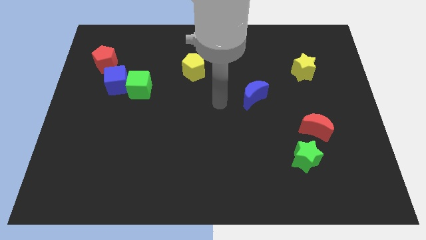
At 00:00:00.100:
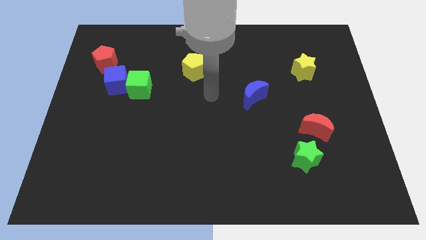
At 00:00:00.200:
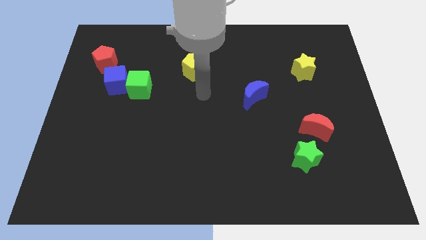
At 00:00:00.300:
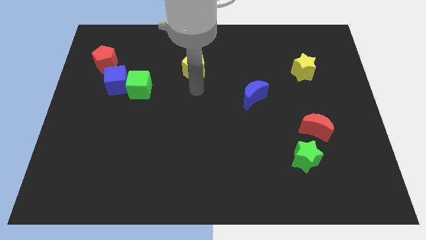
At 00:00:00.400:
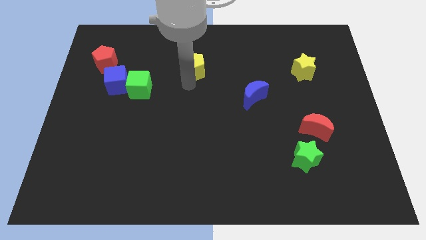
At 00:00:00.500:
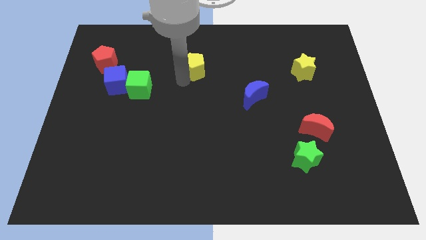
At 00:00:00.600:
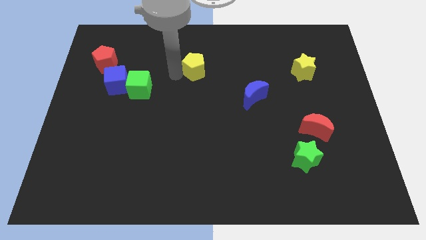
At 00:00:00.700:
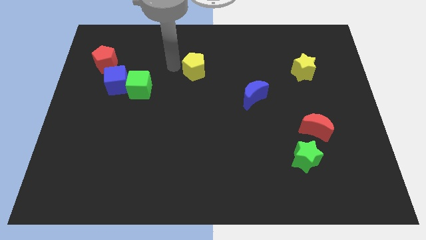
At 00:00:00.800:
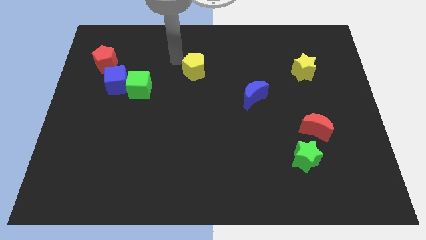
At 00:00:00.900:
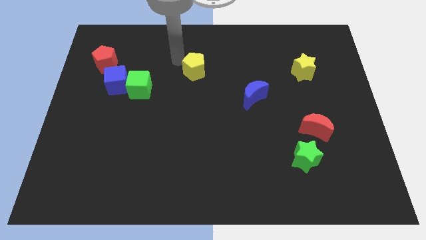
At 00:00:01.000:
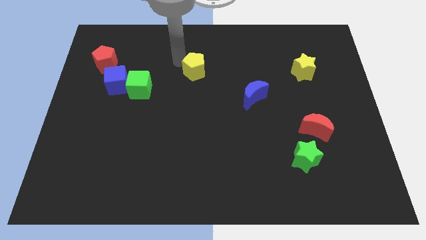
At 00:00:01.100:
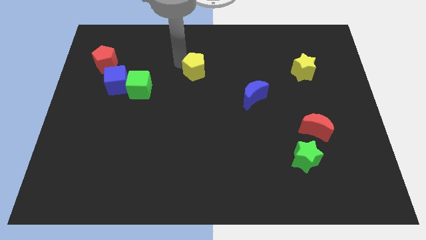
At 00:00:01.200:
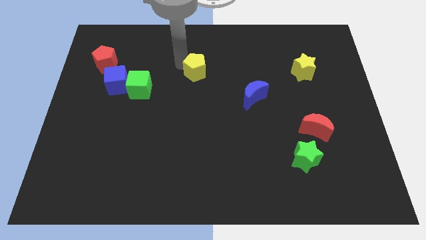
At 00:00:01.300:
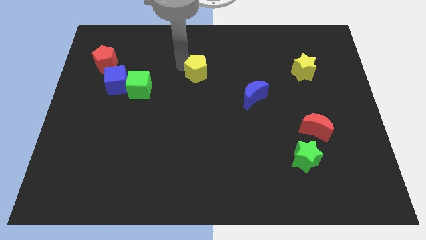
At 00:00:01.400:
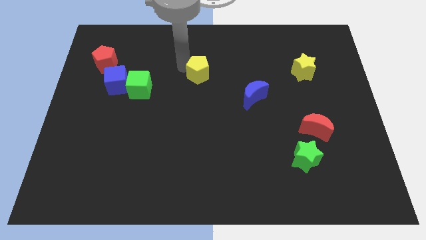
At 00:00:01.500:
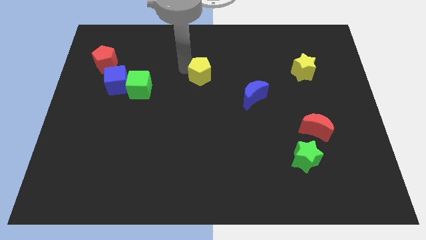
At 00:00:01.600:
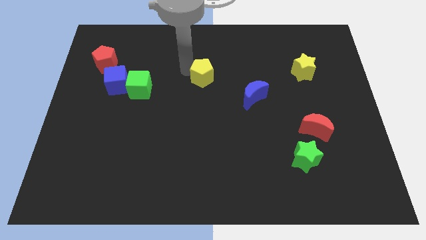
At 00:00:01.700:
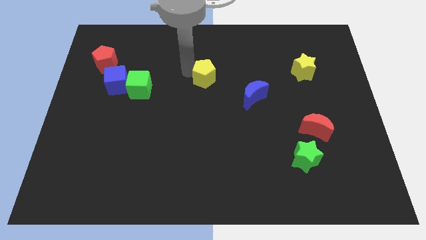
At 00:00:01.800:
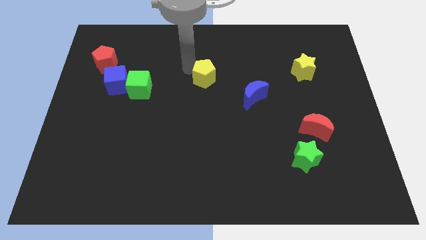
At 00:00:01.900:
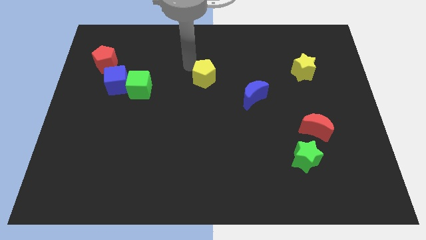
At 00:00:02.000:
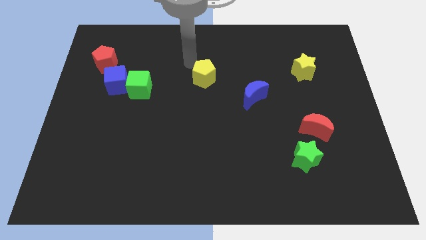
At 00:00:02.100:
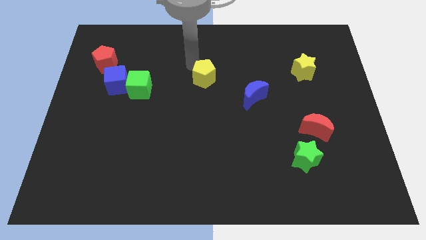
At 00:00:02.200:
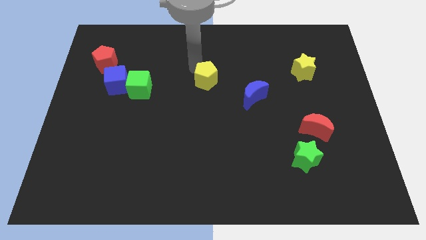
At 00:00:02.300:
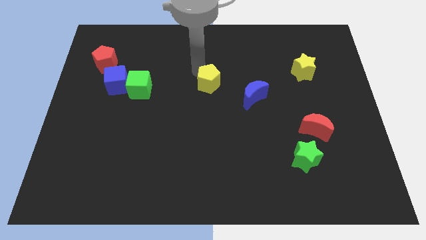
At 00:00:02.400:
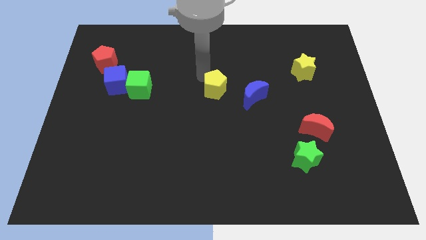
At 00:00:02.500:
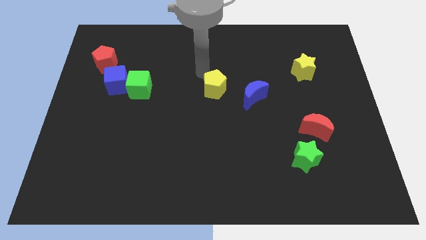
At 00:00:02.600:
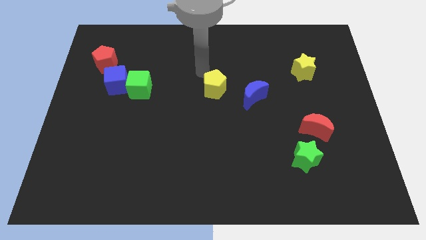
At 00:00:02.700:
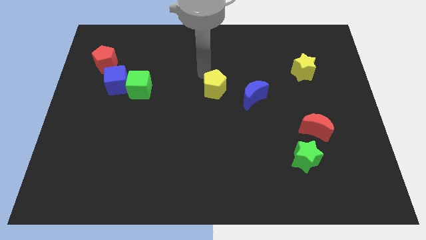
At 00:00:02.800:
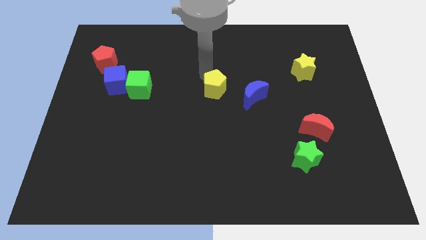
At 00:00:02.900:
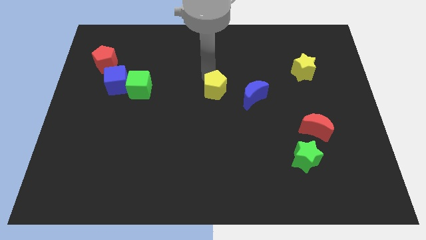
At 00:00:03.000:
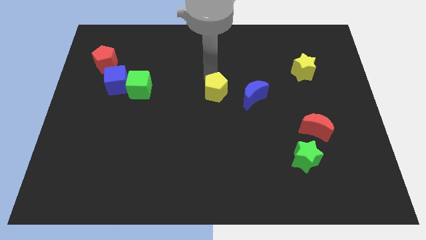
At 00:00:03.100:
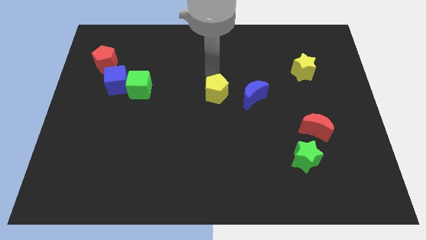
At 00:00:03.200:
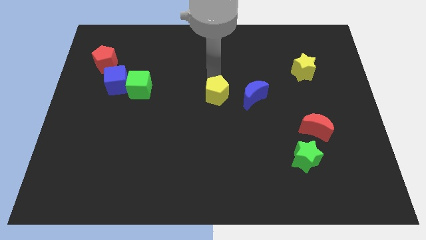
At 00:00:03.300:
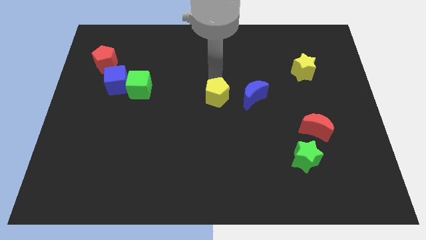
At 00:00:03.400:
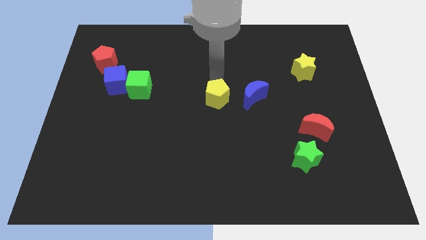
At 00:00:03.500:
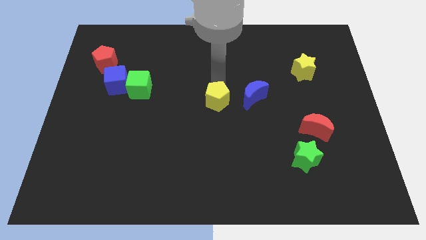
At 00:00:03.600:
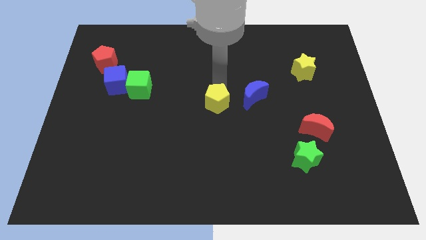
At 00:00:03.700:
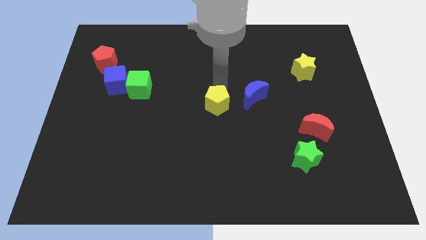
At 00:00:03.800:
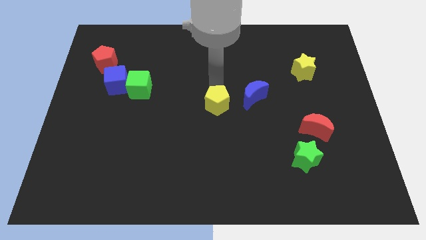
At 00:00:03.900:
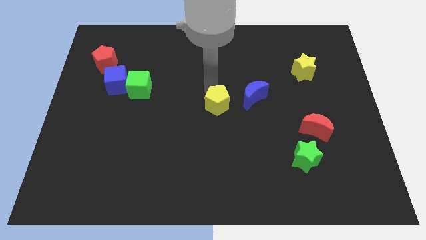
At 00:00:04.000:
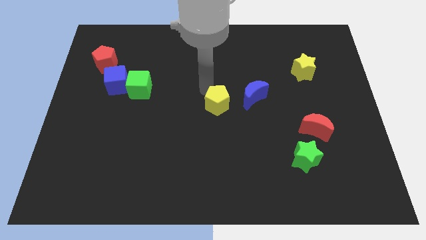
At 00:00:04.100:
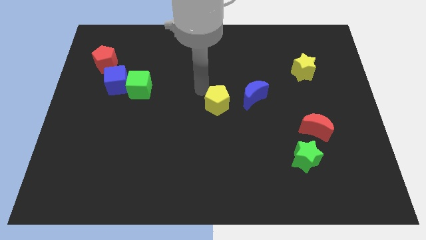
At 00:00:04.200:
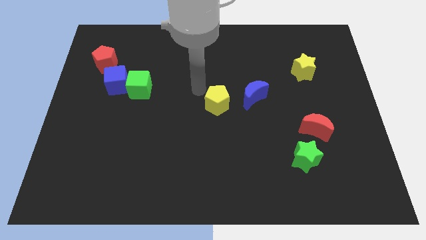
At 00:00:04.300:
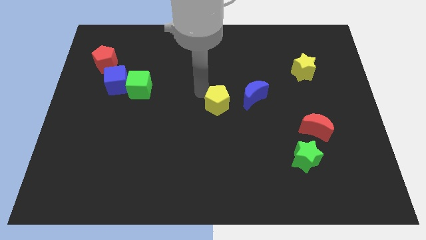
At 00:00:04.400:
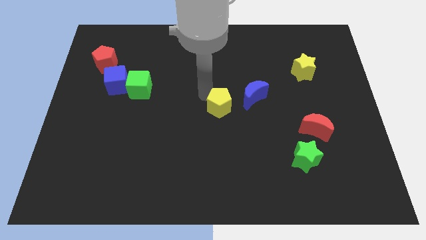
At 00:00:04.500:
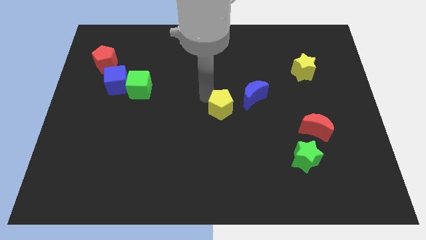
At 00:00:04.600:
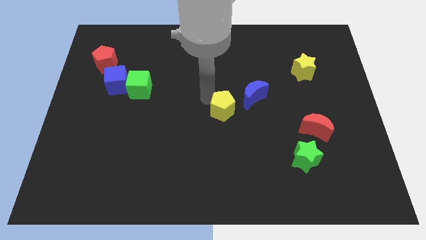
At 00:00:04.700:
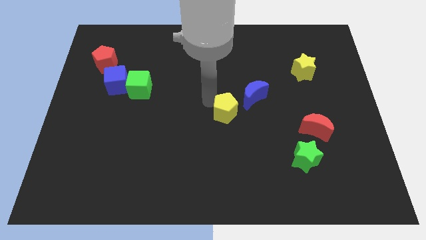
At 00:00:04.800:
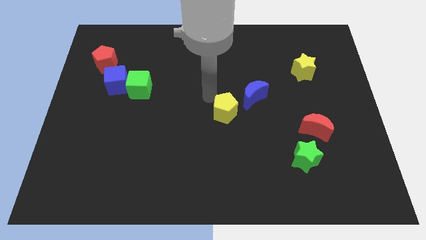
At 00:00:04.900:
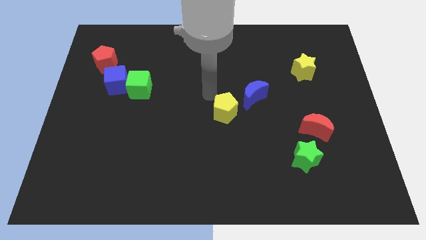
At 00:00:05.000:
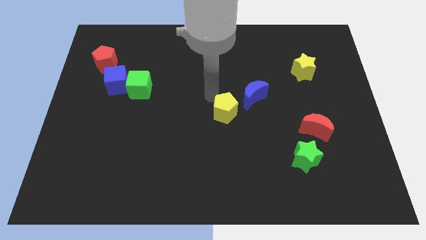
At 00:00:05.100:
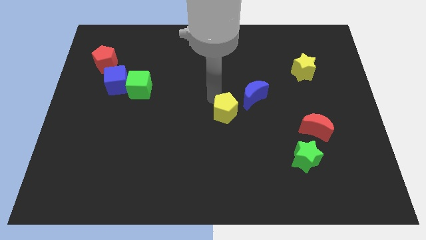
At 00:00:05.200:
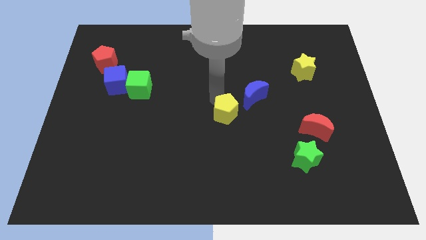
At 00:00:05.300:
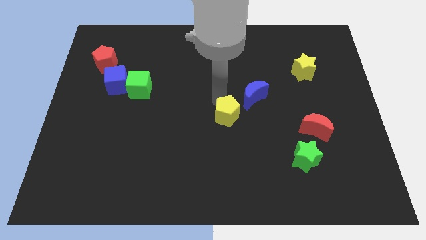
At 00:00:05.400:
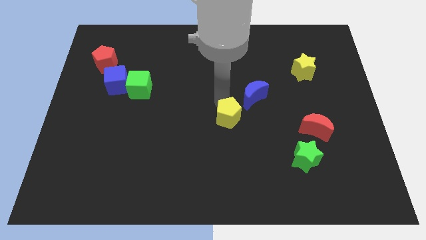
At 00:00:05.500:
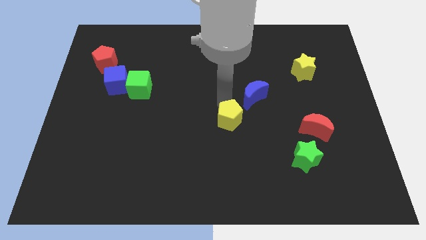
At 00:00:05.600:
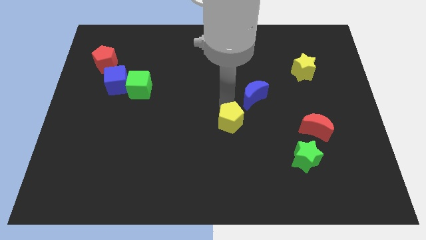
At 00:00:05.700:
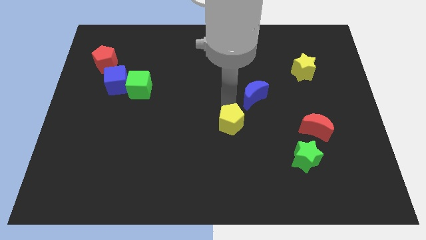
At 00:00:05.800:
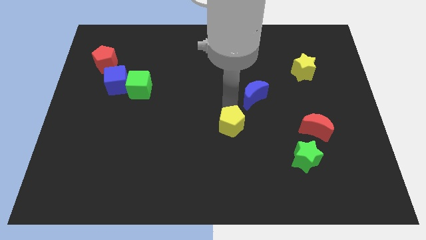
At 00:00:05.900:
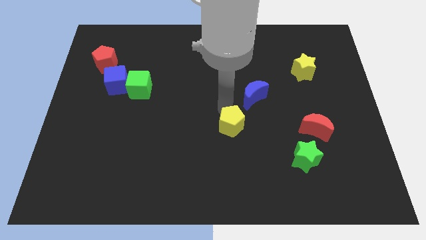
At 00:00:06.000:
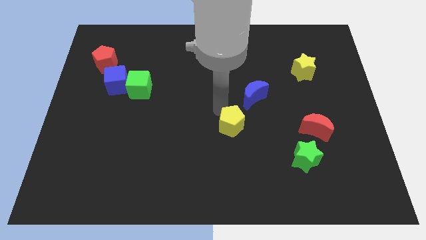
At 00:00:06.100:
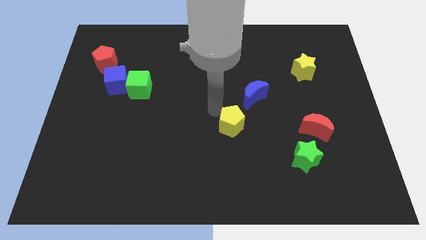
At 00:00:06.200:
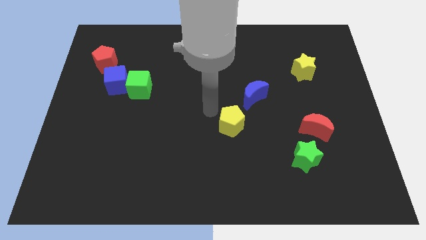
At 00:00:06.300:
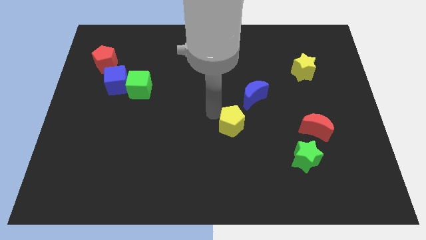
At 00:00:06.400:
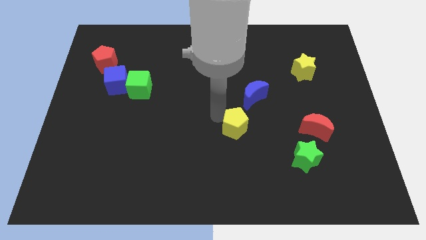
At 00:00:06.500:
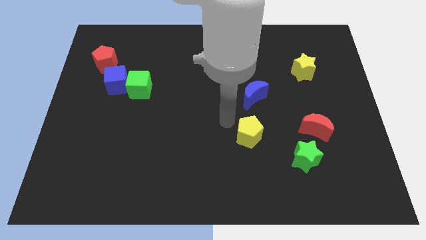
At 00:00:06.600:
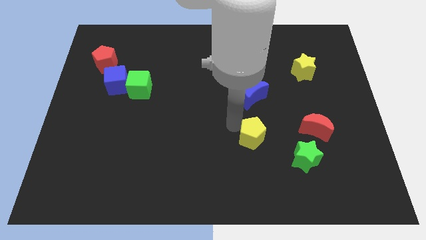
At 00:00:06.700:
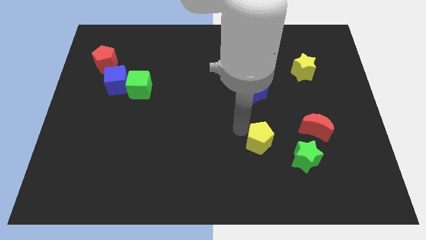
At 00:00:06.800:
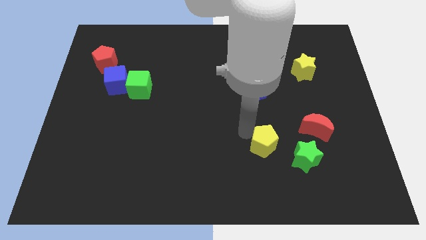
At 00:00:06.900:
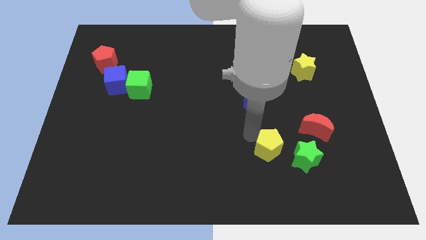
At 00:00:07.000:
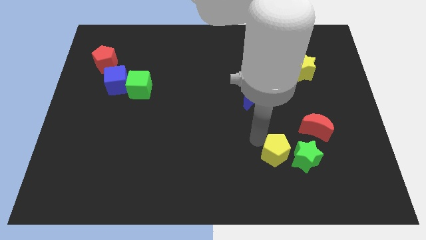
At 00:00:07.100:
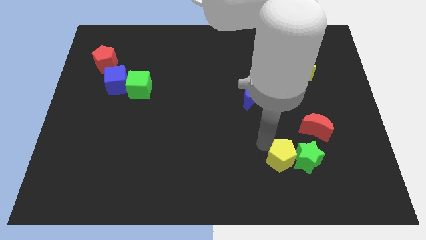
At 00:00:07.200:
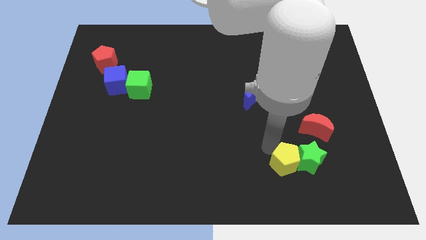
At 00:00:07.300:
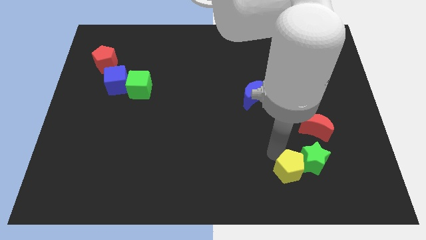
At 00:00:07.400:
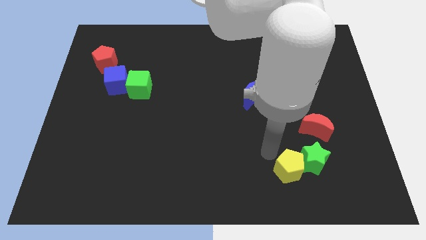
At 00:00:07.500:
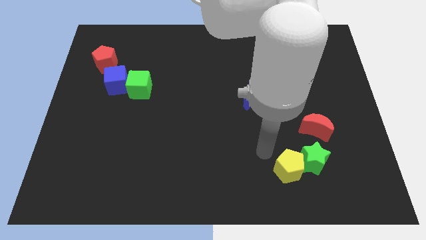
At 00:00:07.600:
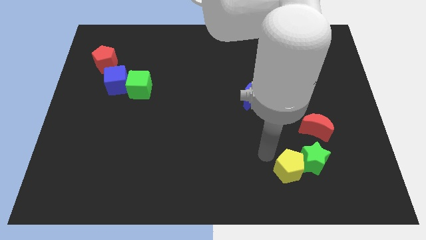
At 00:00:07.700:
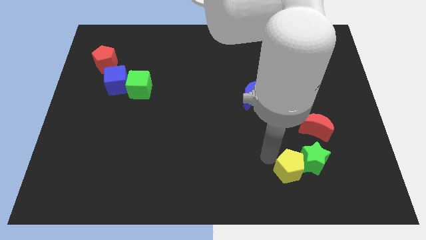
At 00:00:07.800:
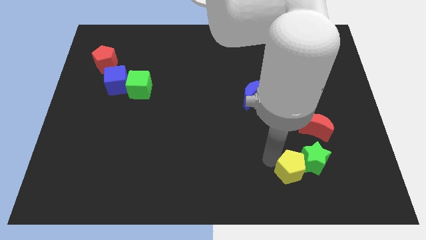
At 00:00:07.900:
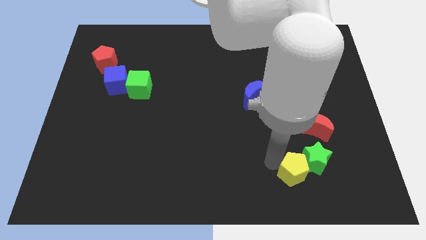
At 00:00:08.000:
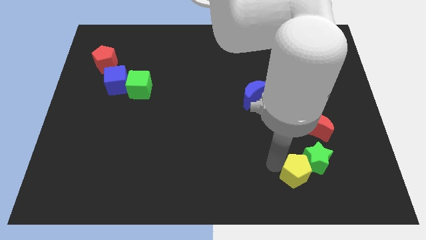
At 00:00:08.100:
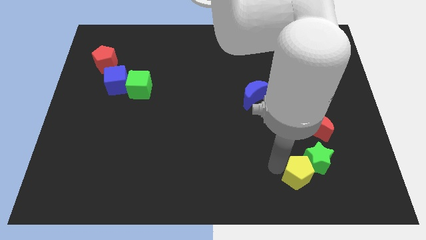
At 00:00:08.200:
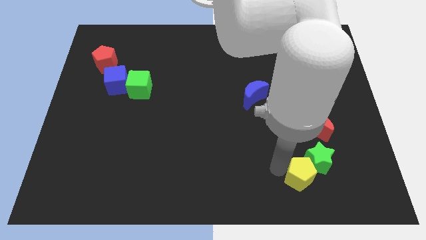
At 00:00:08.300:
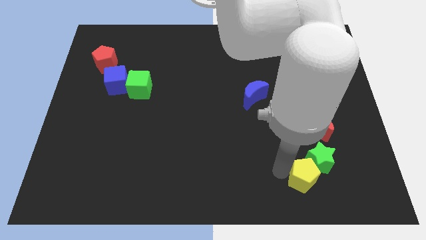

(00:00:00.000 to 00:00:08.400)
put the yellow pentagon to the bottom of the red moon
